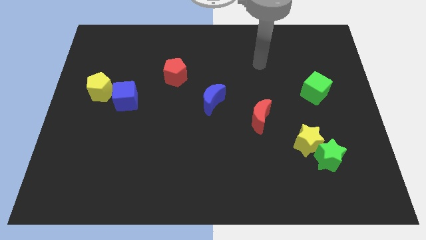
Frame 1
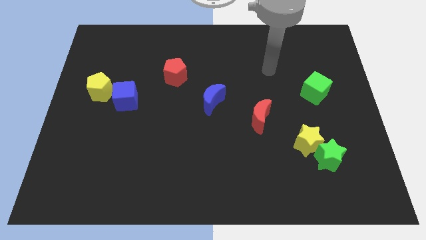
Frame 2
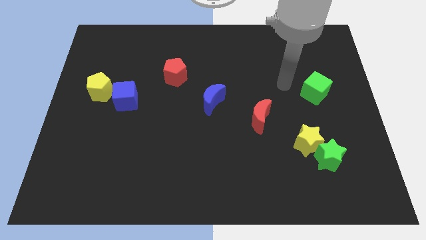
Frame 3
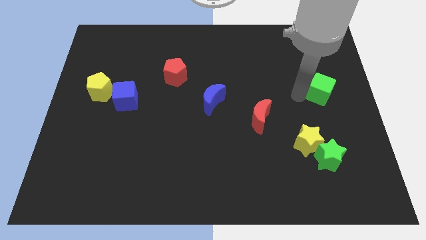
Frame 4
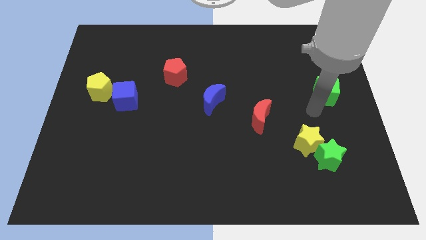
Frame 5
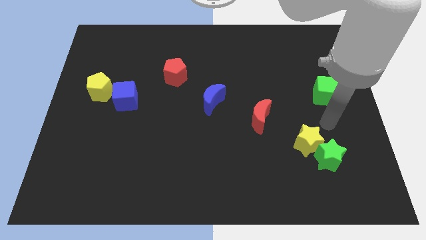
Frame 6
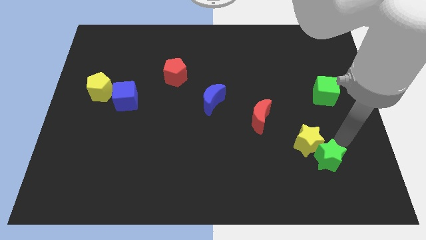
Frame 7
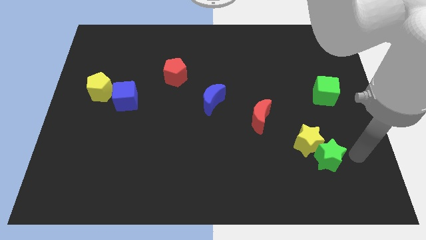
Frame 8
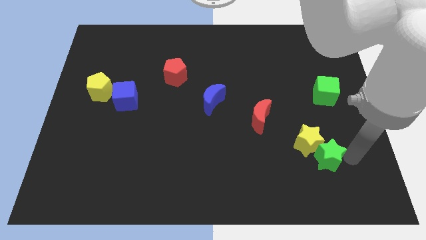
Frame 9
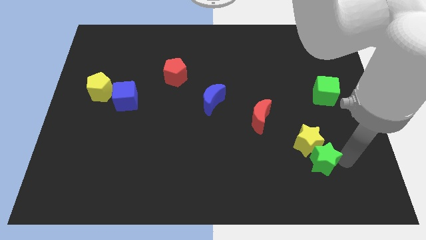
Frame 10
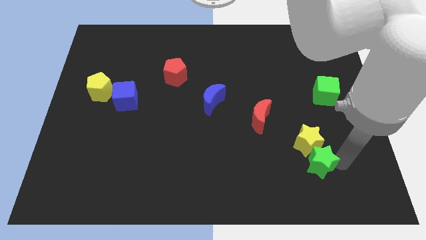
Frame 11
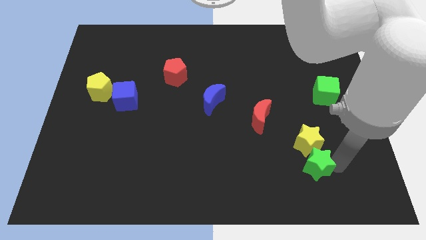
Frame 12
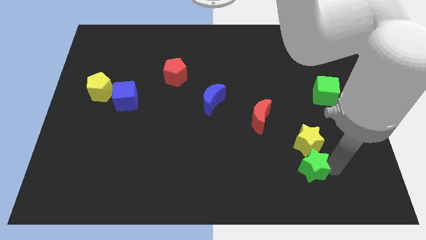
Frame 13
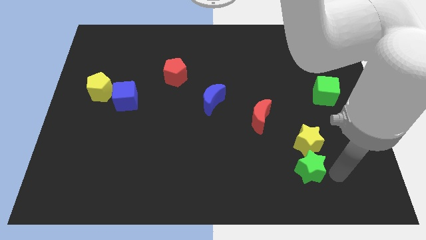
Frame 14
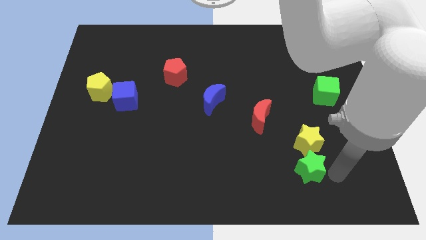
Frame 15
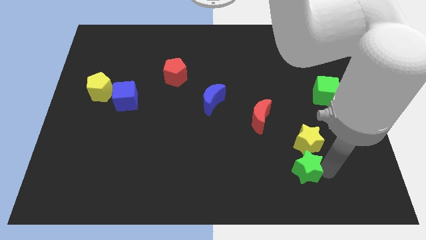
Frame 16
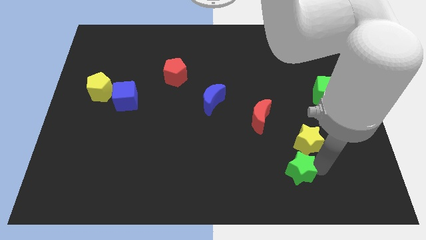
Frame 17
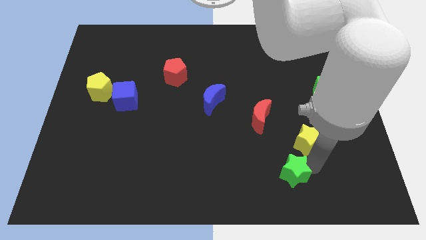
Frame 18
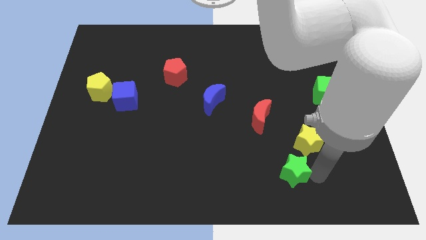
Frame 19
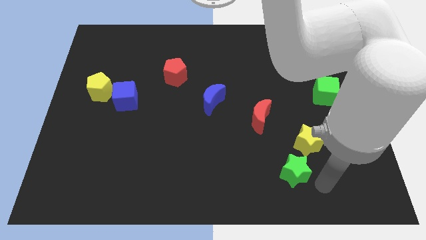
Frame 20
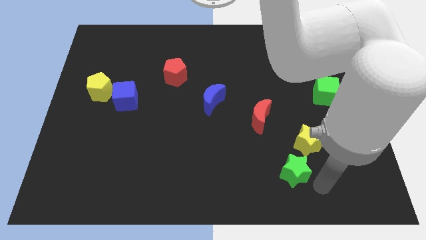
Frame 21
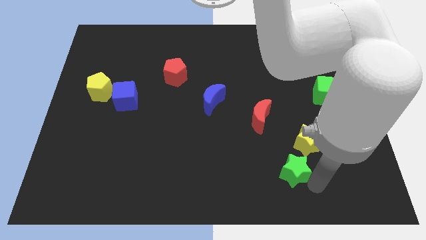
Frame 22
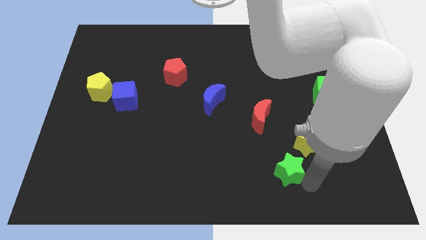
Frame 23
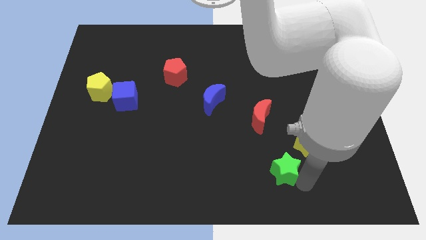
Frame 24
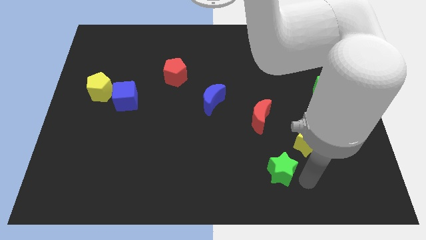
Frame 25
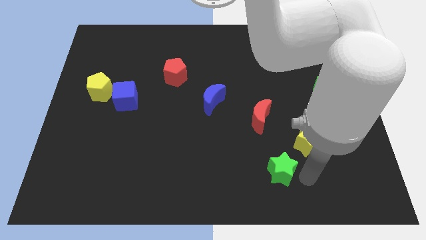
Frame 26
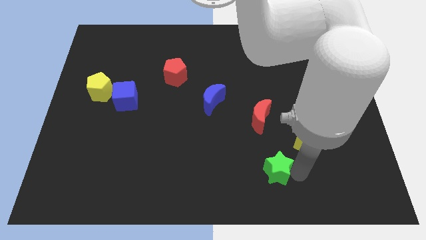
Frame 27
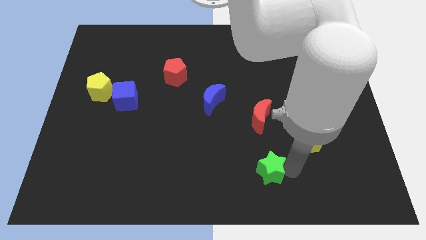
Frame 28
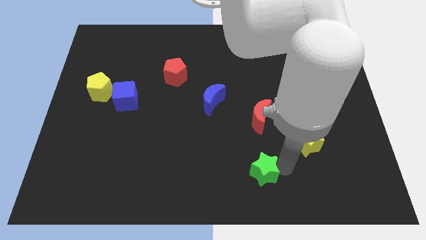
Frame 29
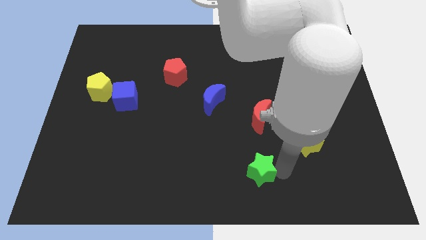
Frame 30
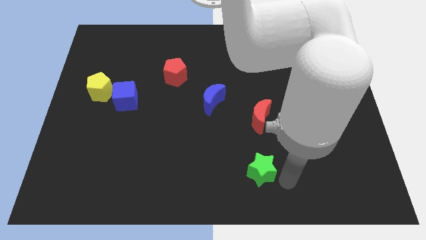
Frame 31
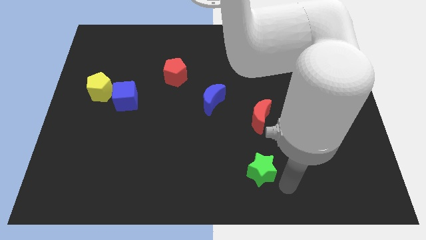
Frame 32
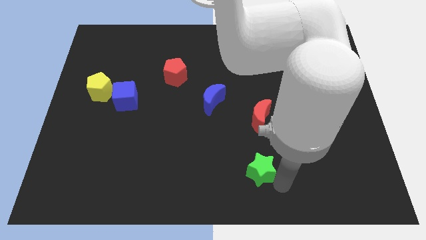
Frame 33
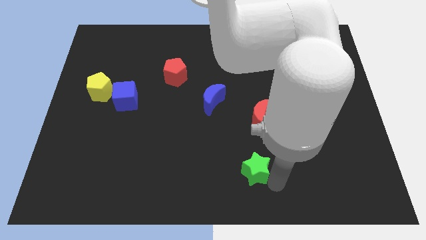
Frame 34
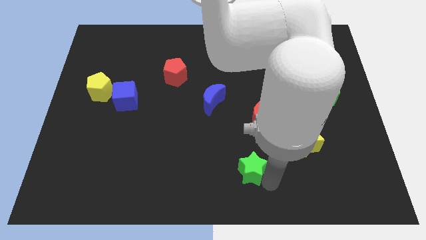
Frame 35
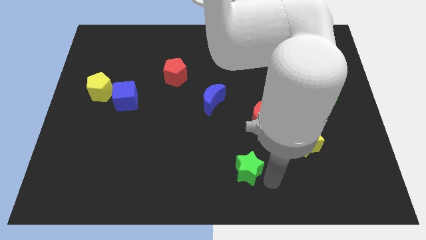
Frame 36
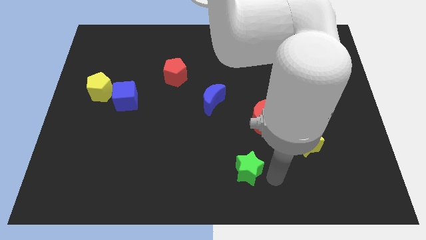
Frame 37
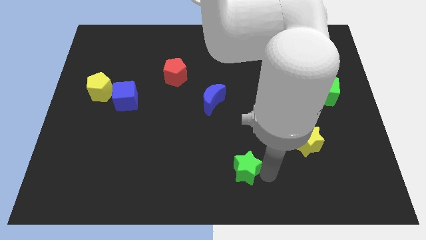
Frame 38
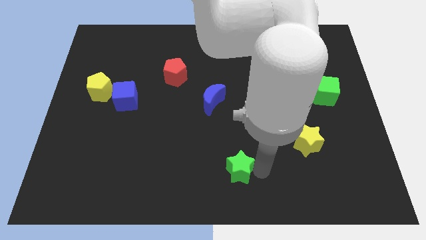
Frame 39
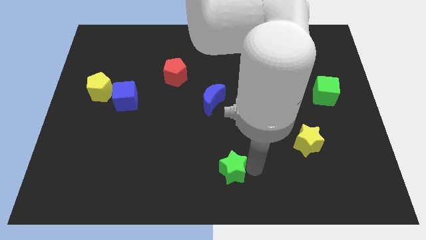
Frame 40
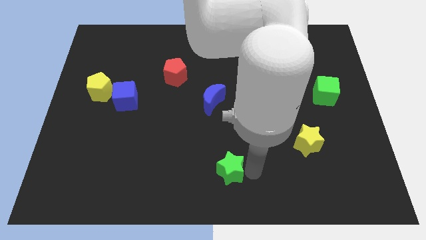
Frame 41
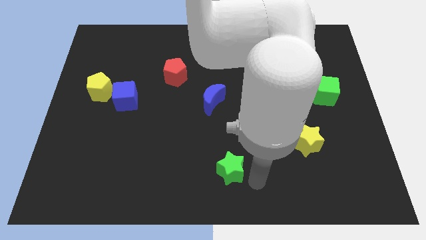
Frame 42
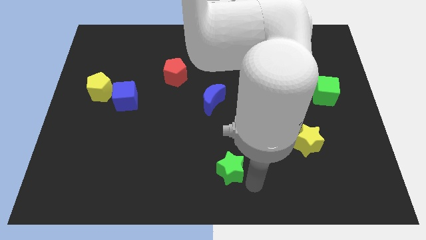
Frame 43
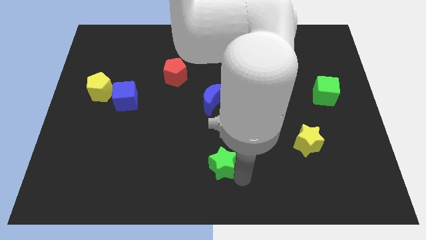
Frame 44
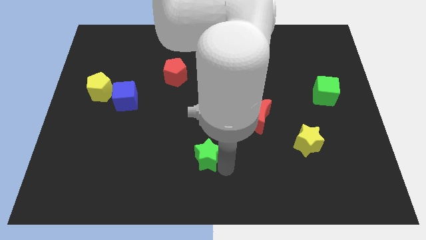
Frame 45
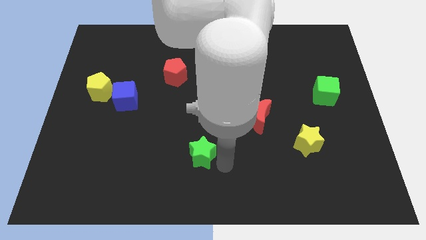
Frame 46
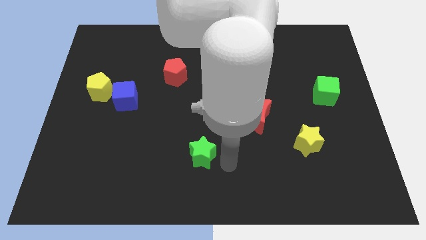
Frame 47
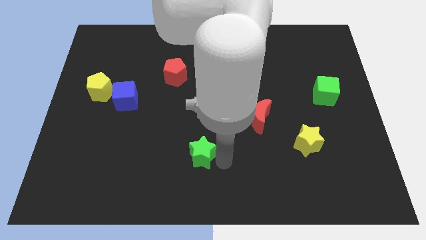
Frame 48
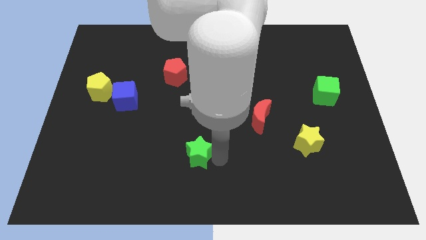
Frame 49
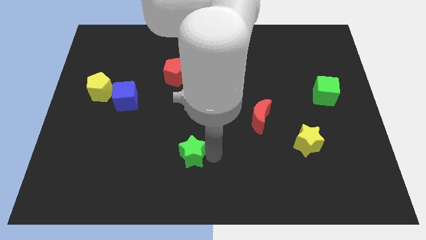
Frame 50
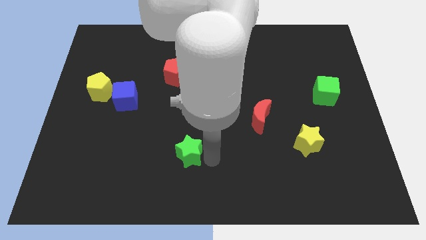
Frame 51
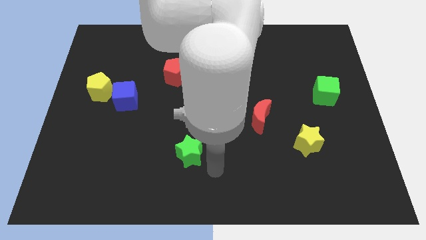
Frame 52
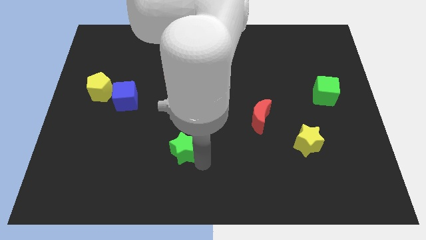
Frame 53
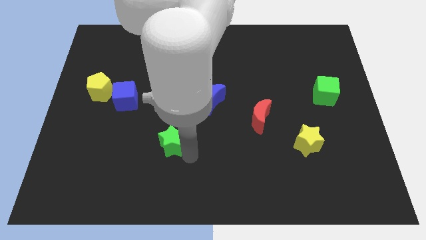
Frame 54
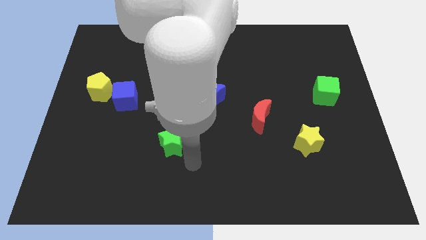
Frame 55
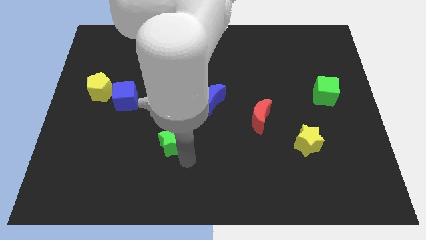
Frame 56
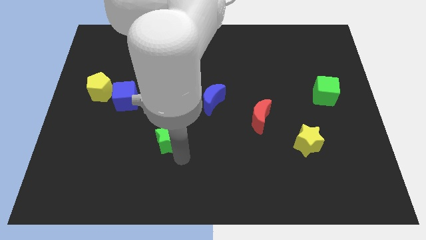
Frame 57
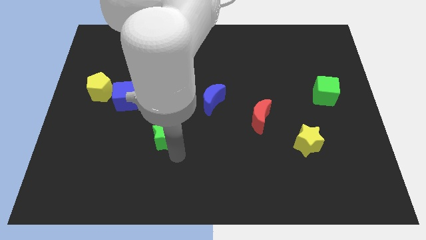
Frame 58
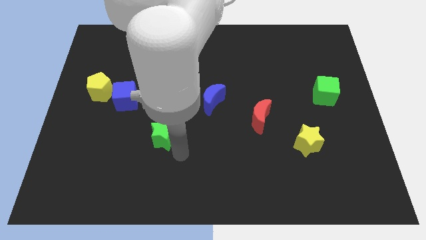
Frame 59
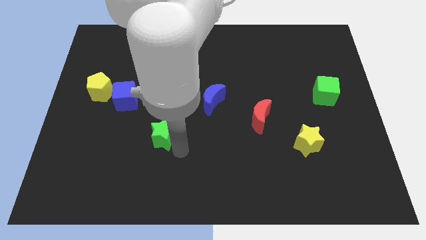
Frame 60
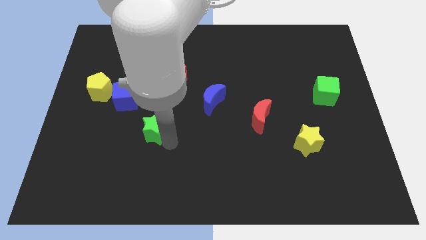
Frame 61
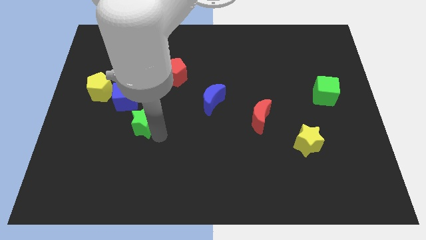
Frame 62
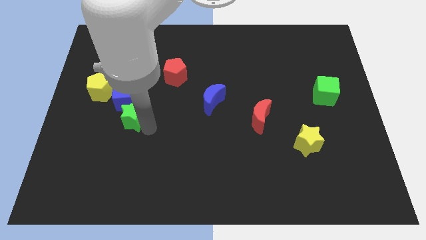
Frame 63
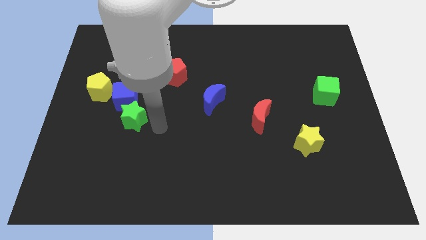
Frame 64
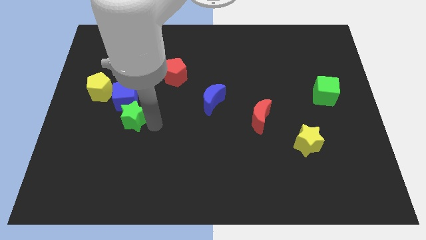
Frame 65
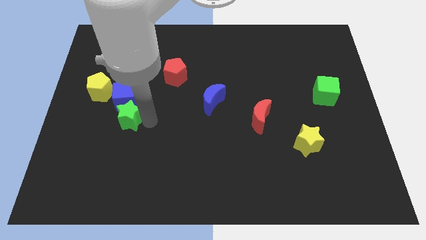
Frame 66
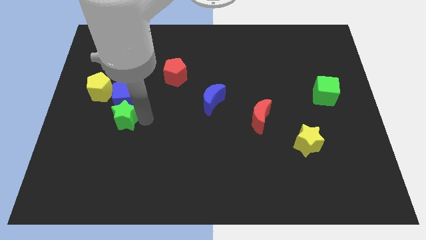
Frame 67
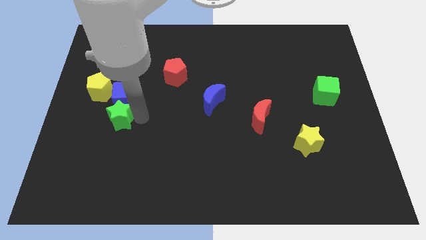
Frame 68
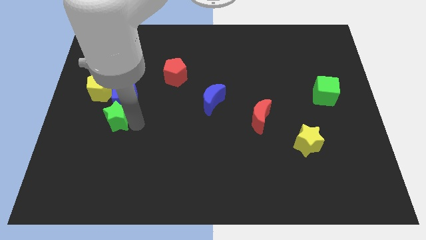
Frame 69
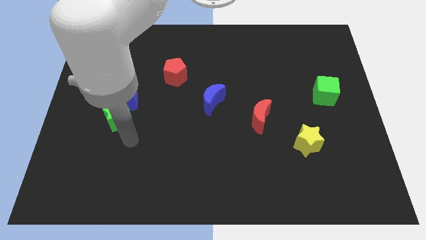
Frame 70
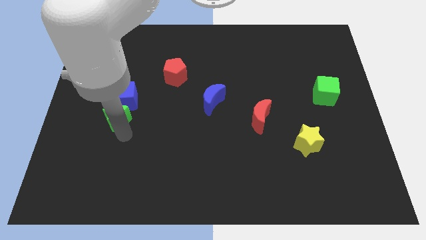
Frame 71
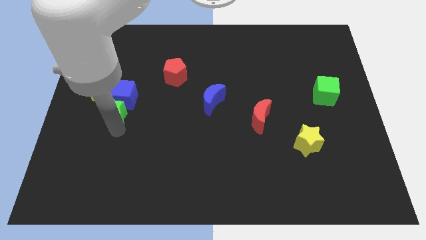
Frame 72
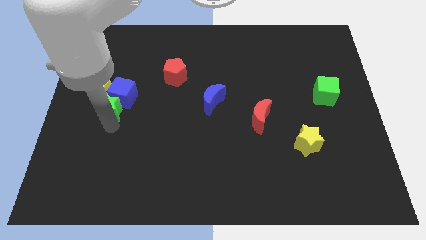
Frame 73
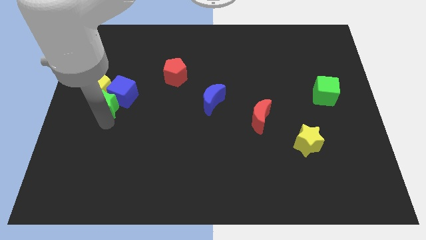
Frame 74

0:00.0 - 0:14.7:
slide the green star next to the yellow pentagon

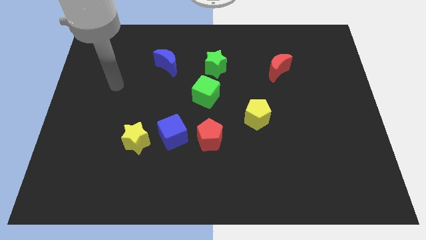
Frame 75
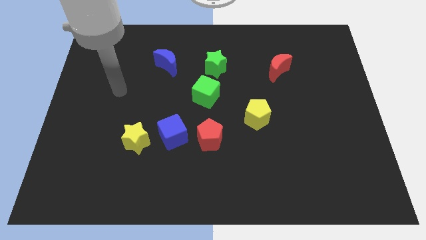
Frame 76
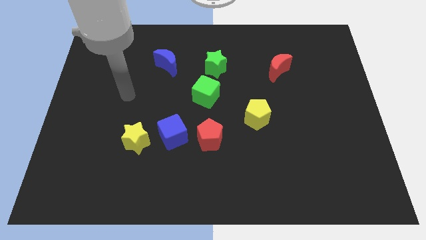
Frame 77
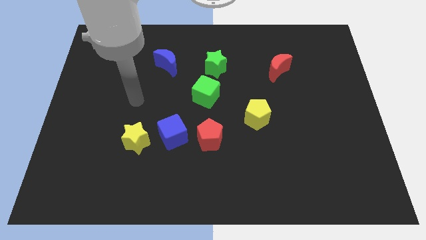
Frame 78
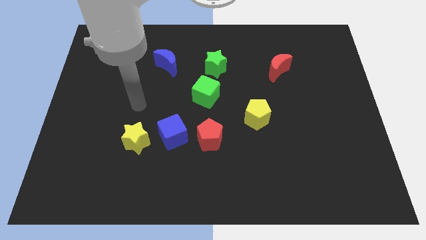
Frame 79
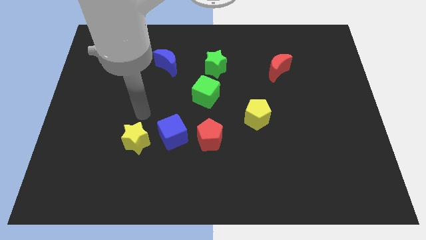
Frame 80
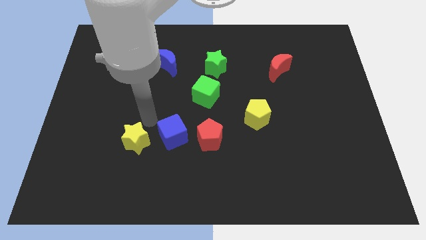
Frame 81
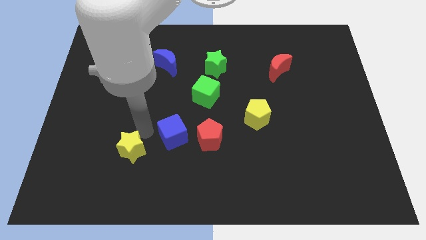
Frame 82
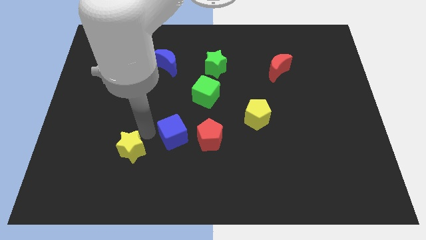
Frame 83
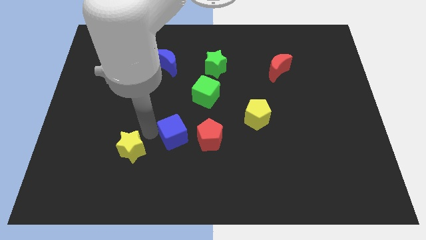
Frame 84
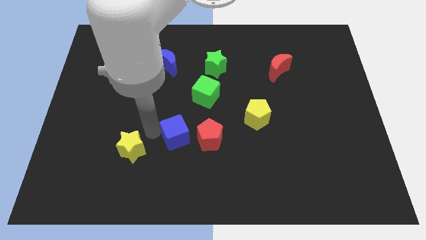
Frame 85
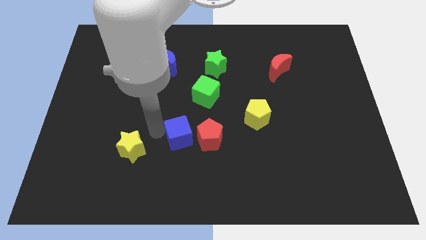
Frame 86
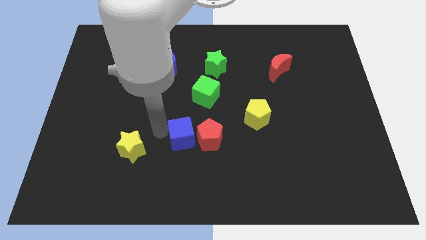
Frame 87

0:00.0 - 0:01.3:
put the blue cube towards the red pentagon
